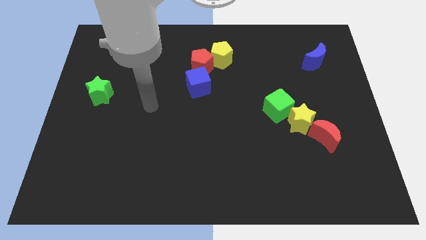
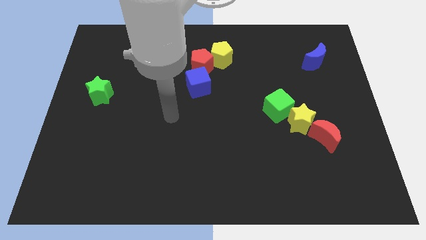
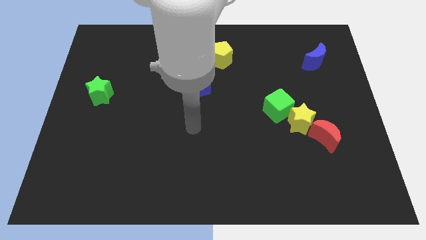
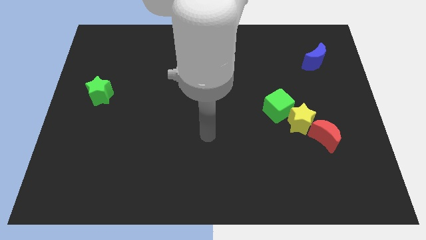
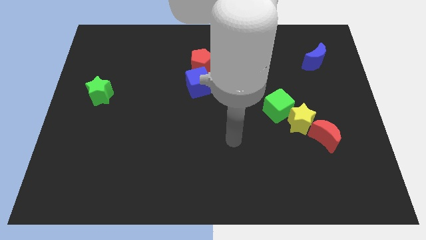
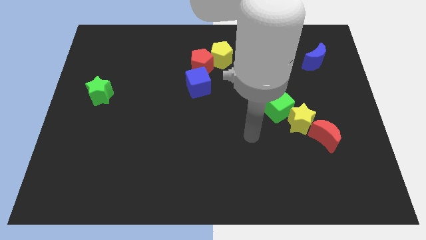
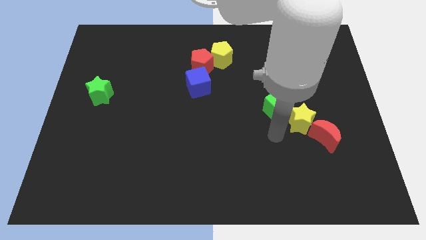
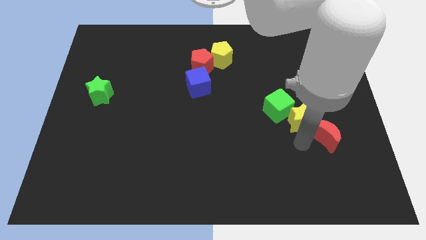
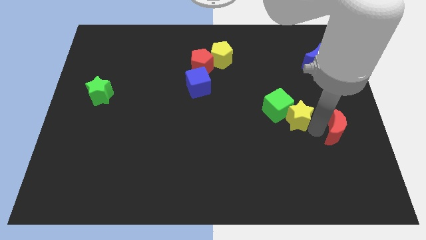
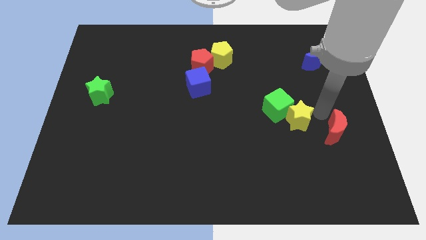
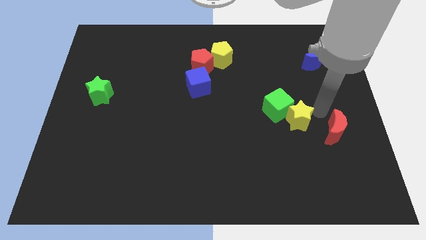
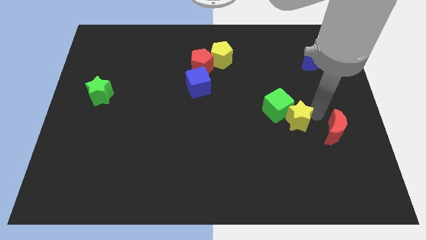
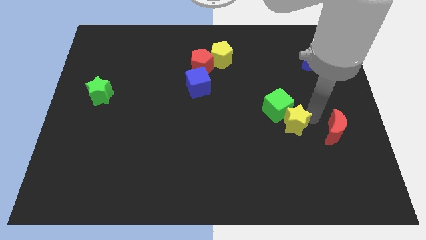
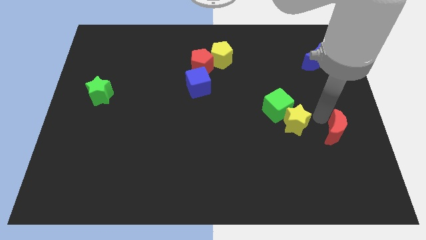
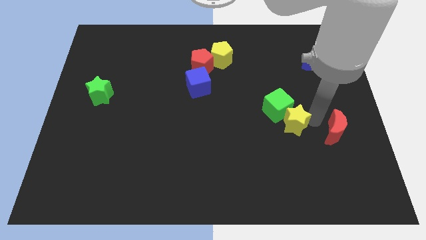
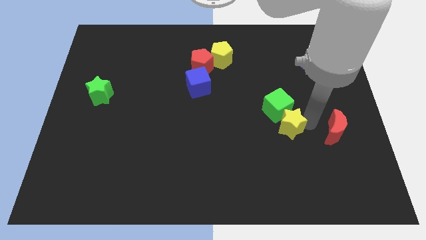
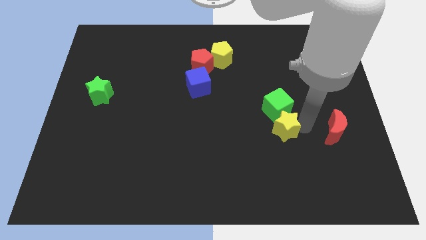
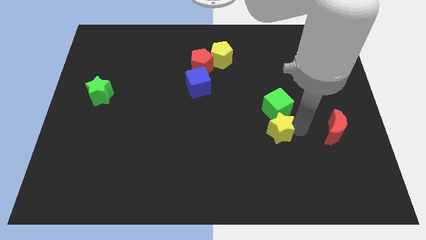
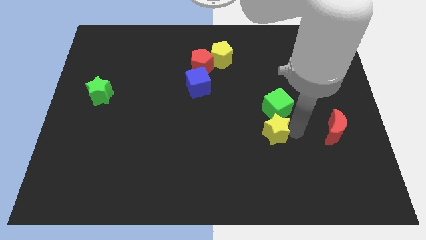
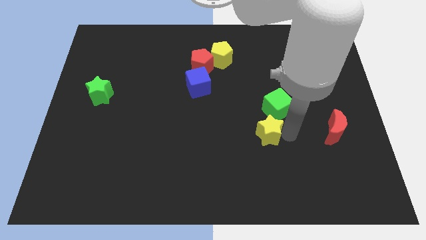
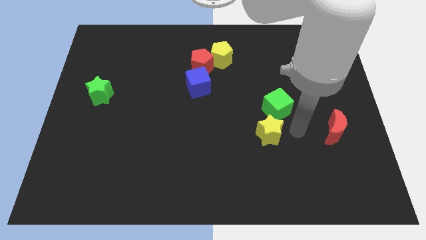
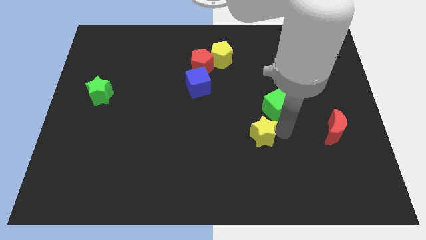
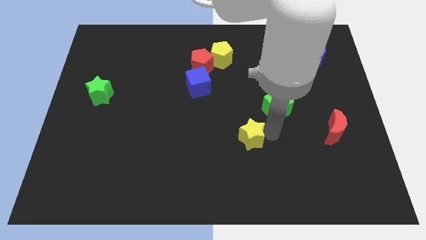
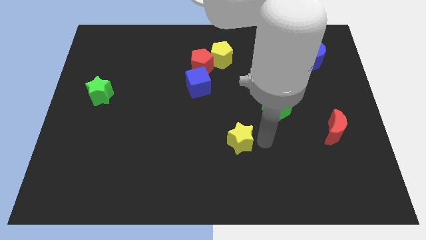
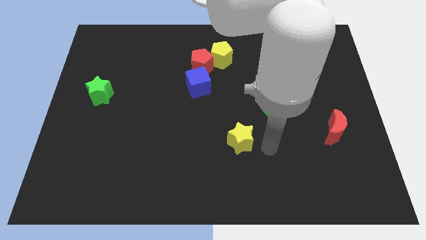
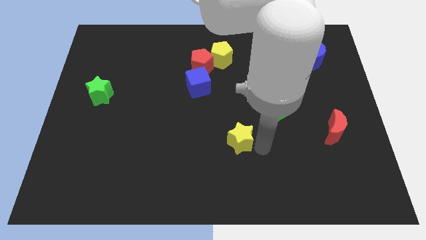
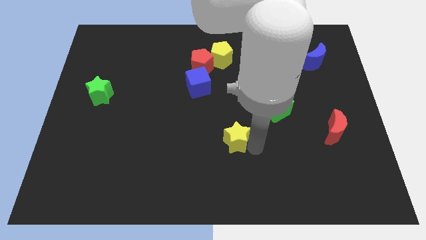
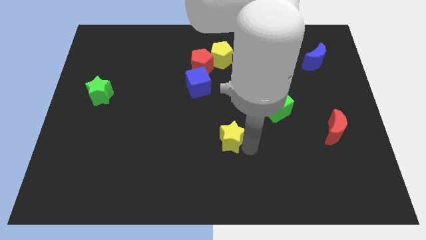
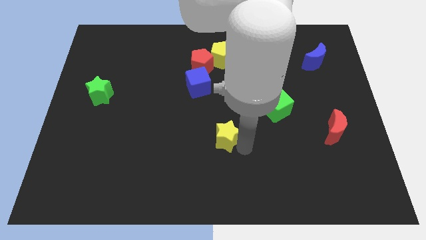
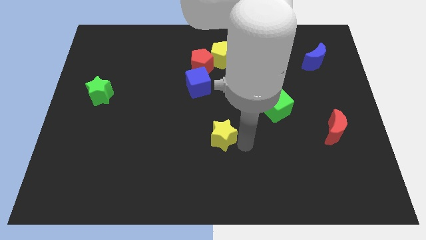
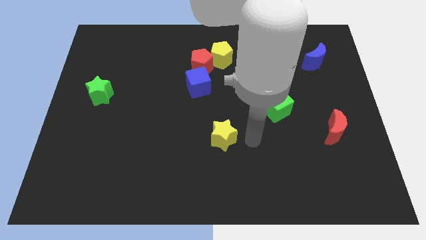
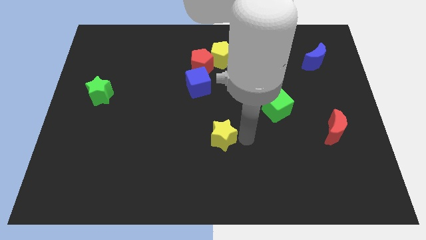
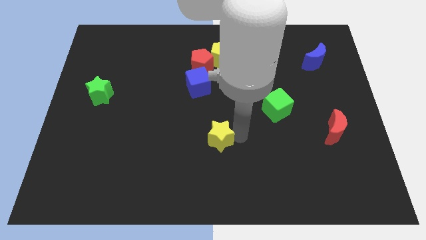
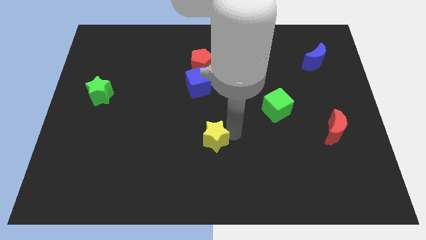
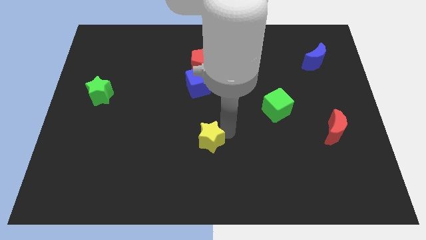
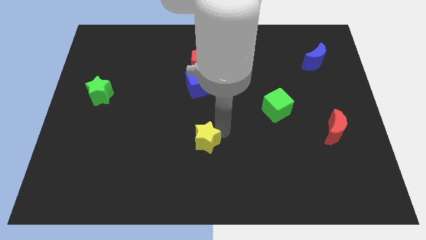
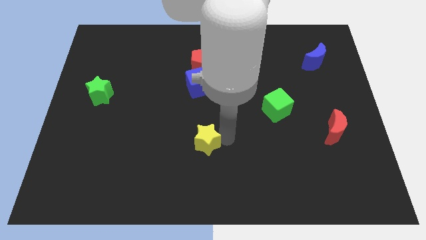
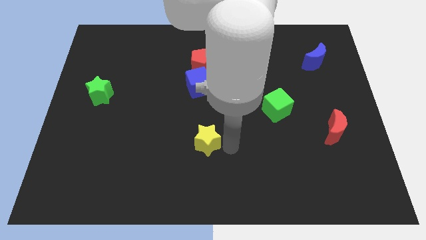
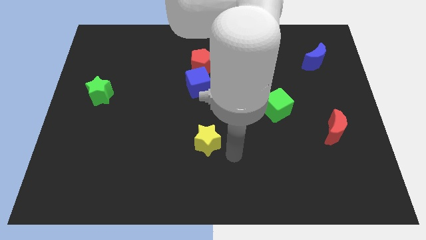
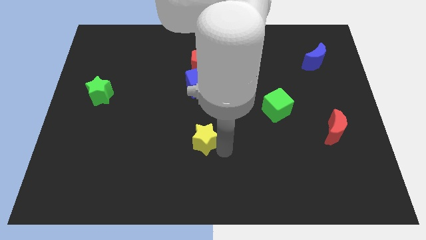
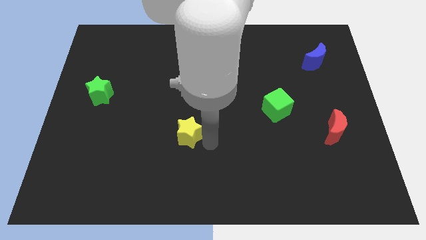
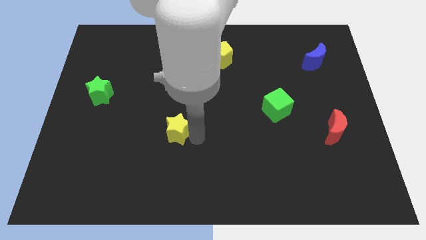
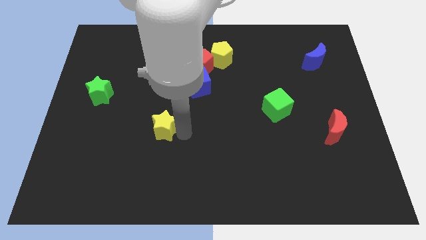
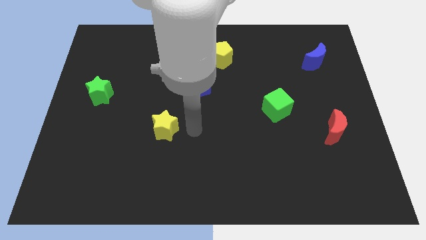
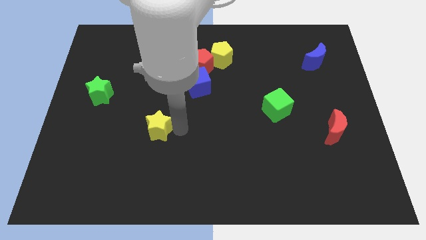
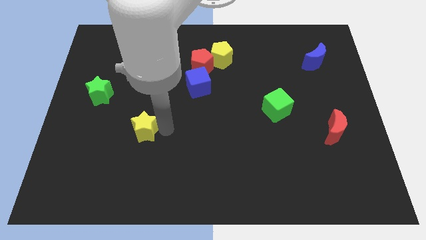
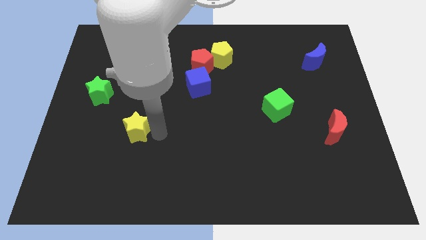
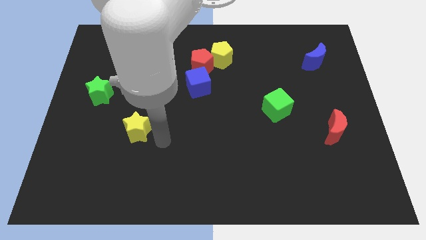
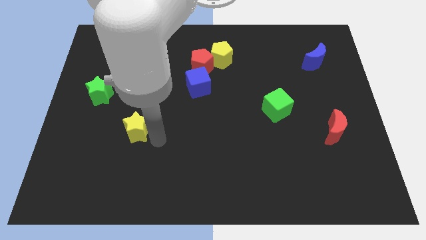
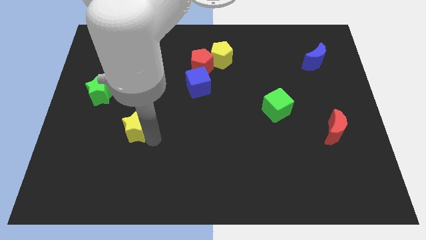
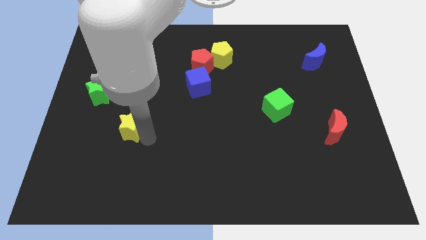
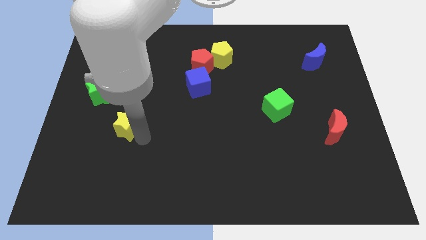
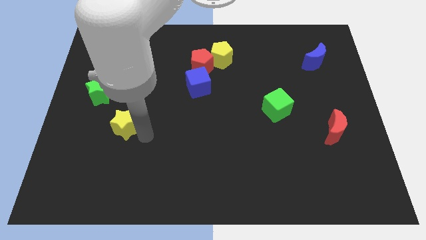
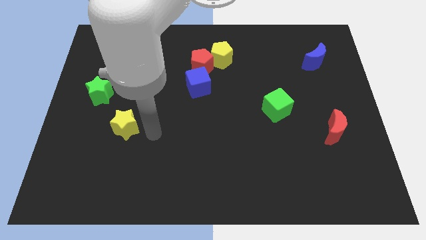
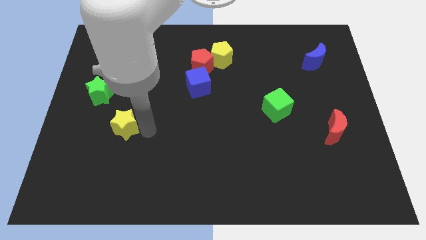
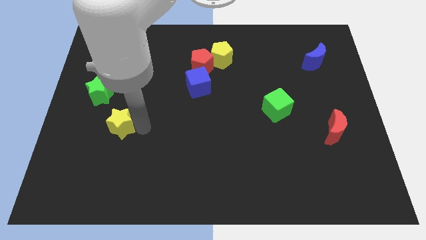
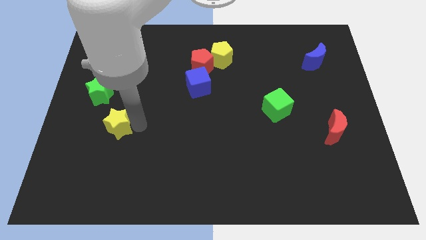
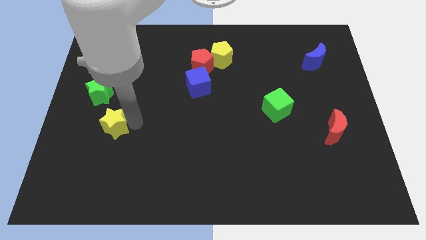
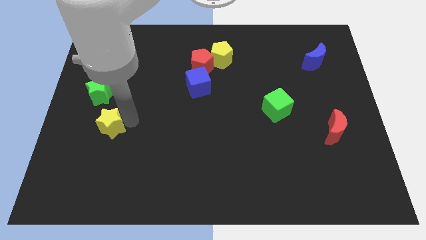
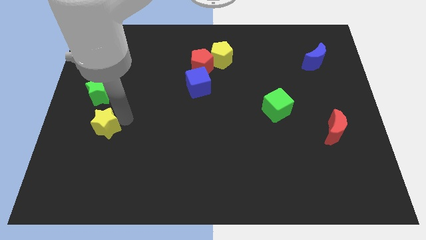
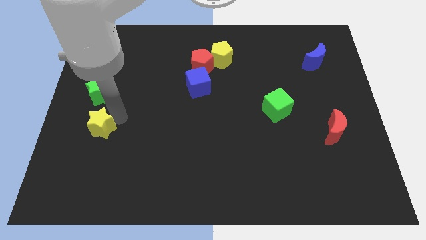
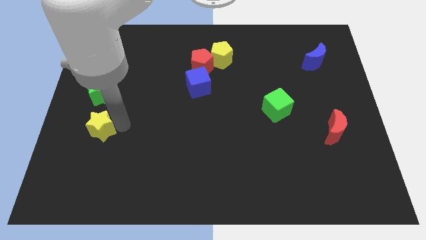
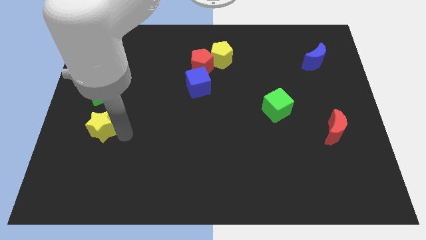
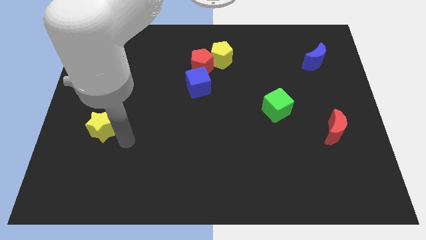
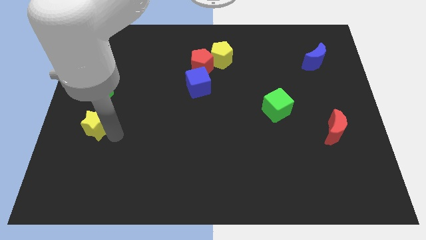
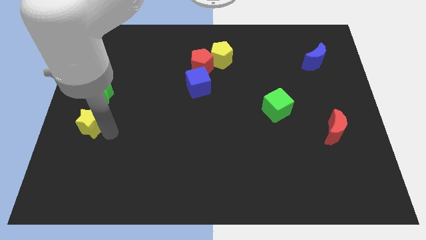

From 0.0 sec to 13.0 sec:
push the yellow star to the left side
